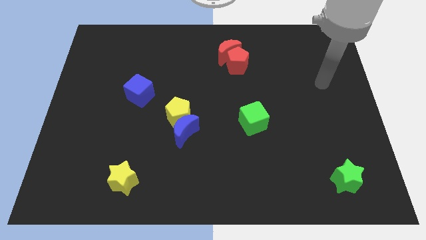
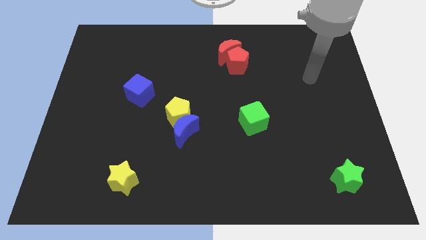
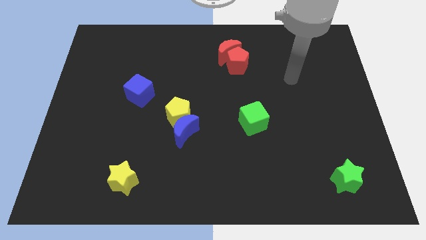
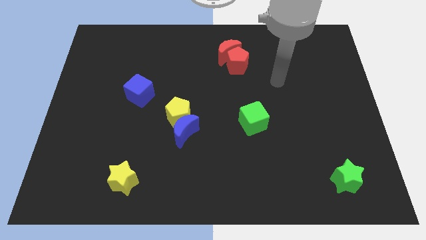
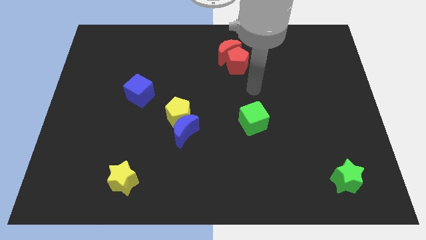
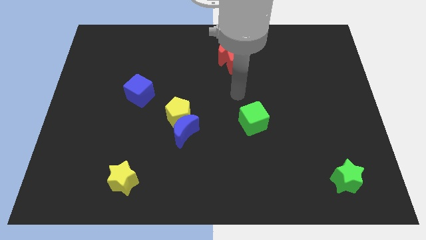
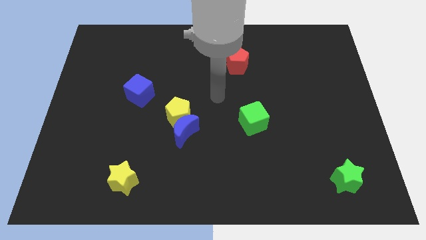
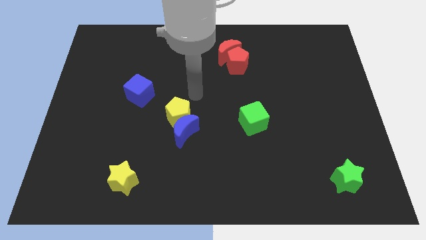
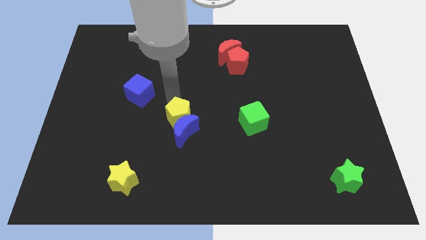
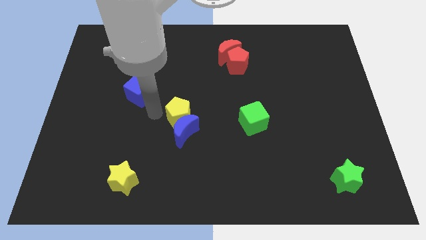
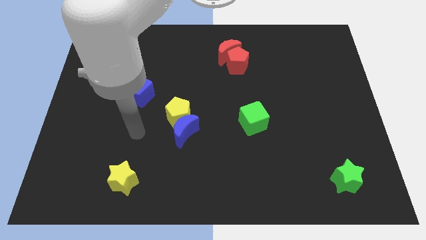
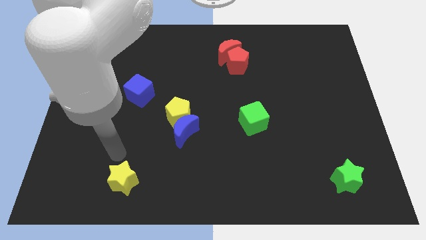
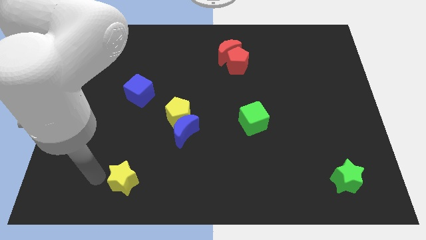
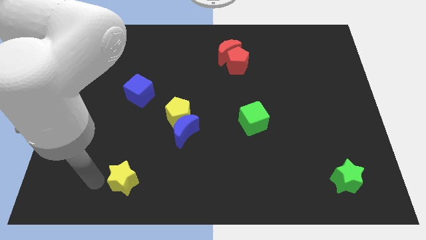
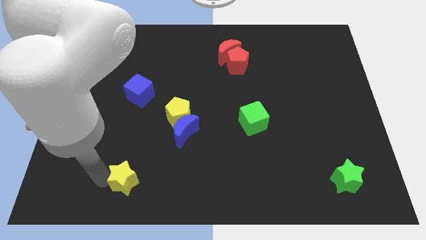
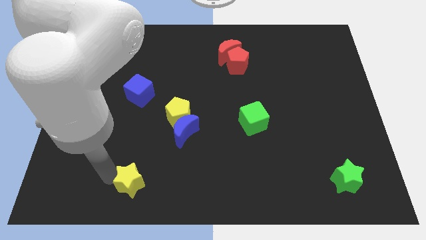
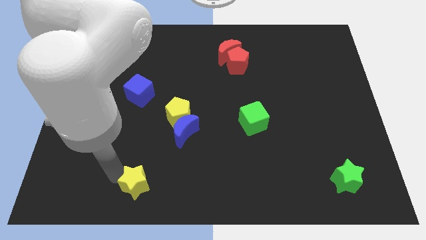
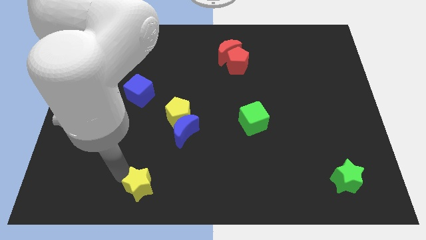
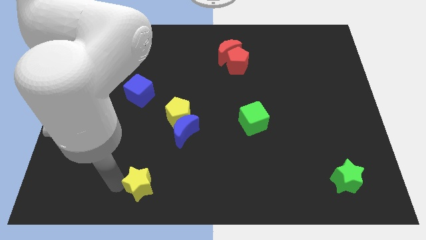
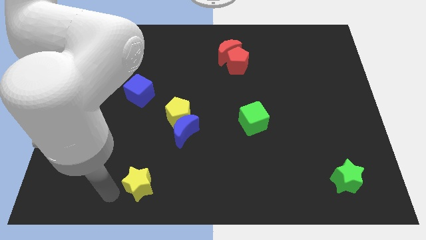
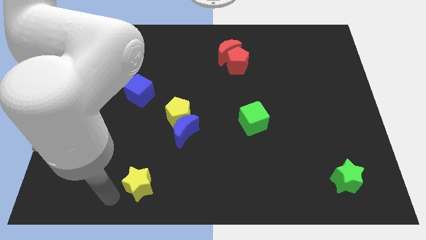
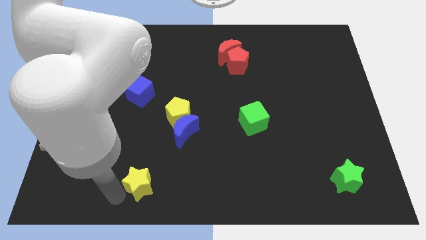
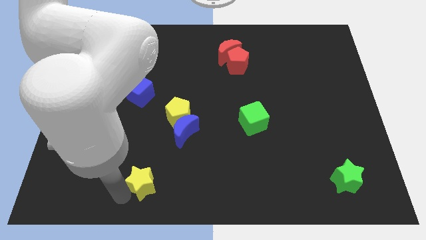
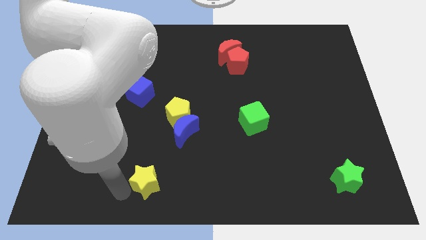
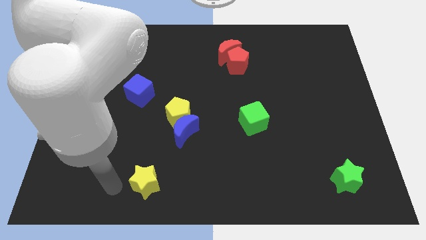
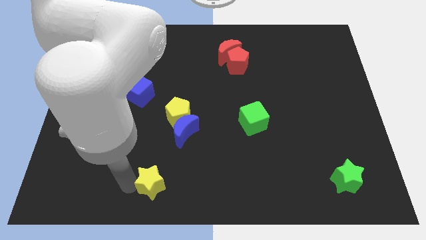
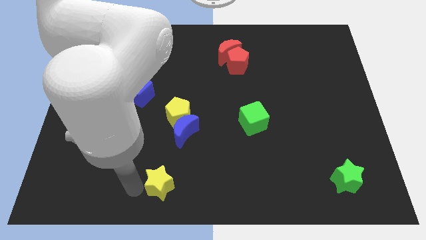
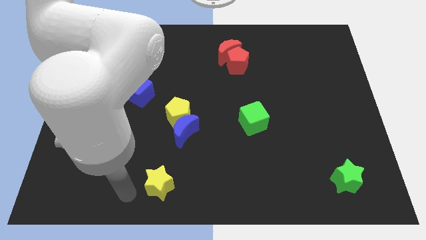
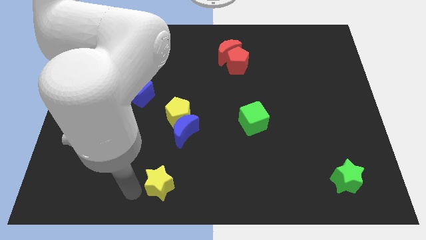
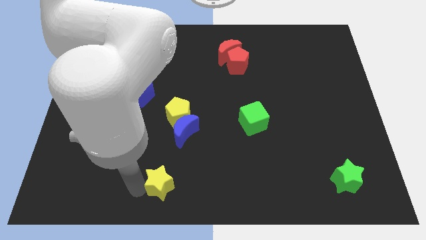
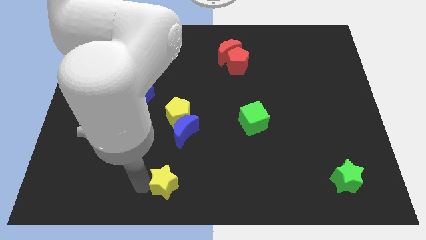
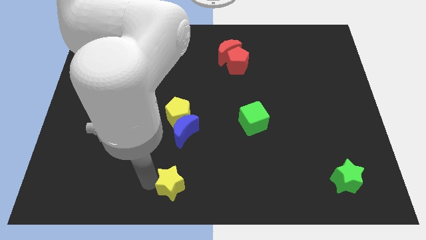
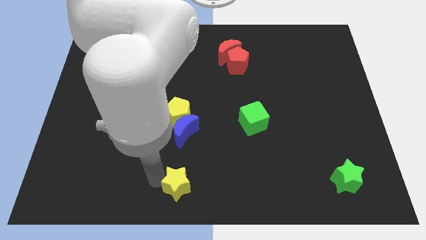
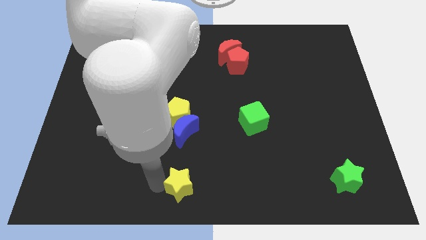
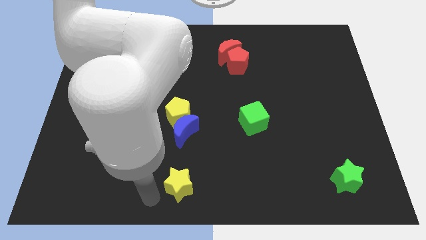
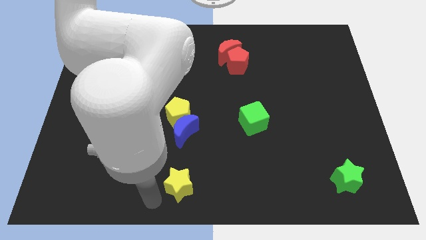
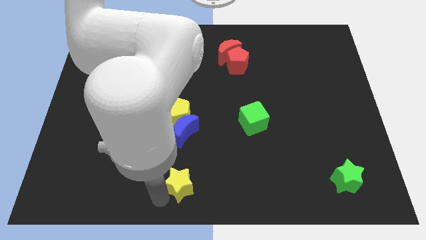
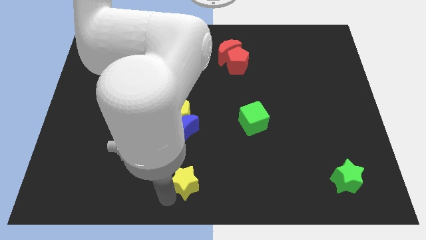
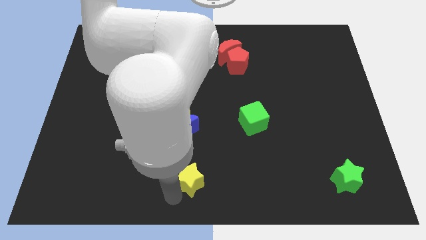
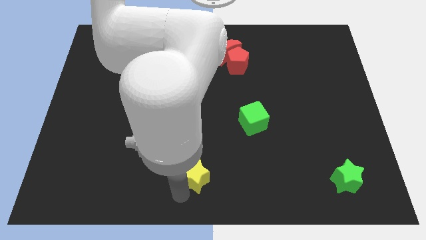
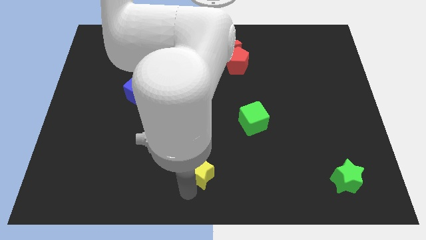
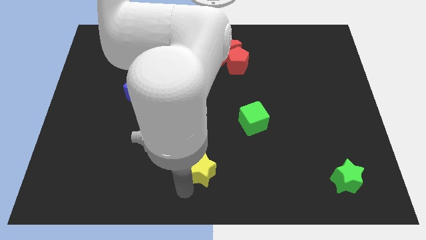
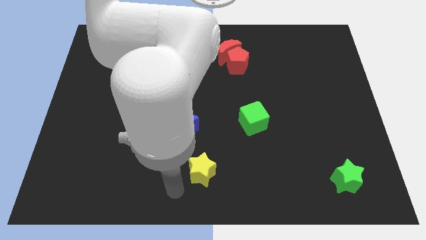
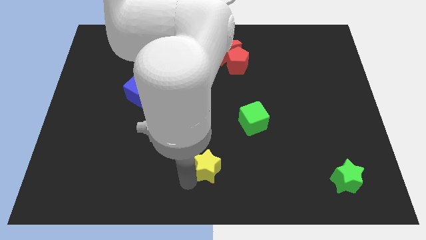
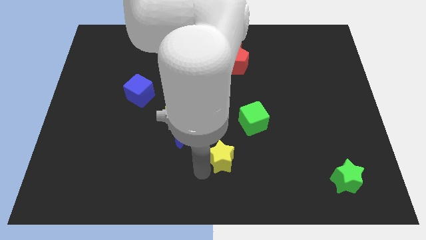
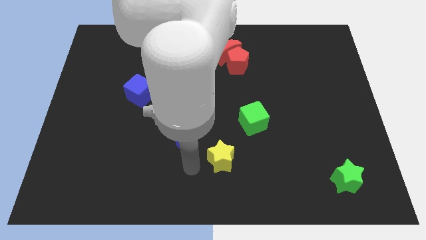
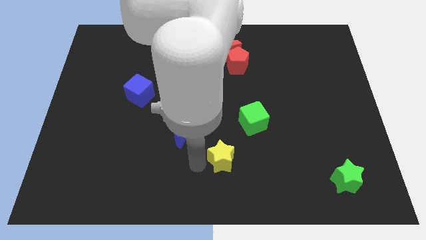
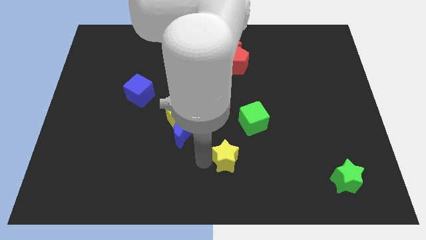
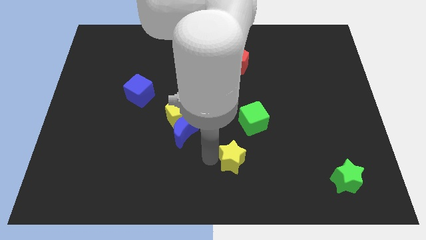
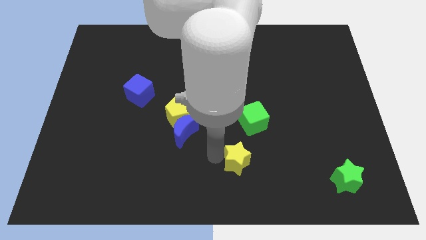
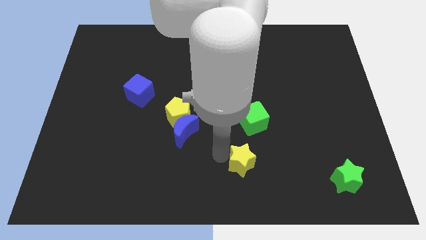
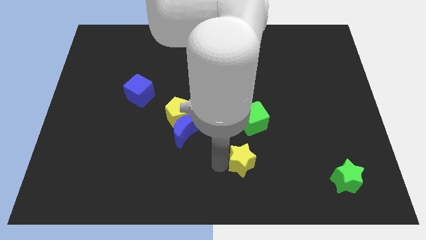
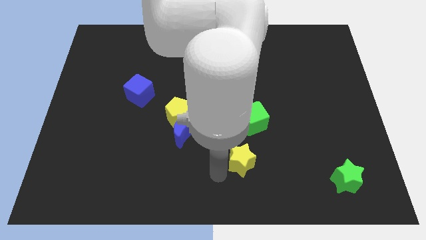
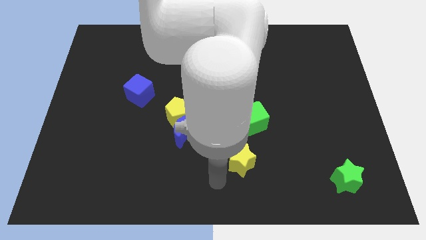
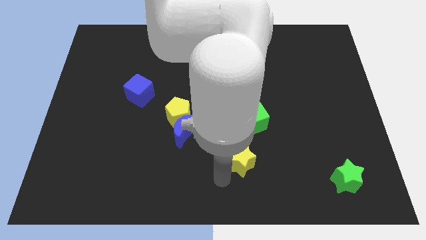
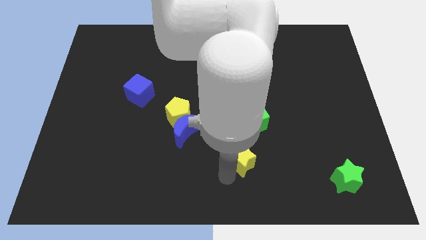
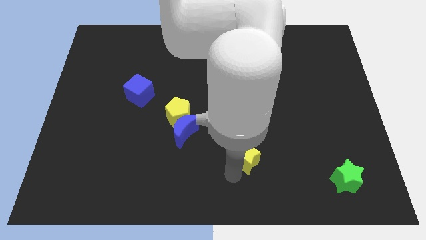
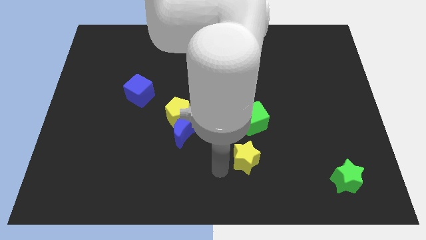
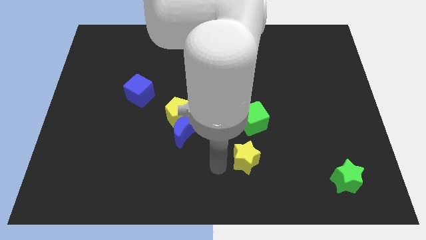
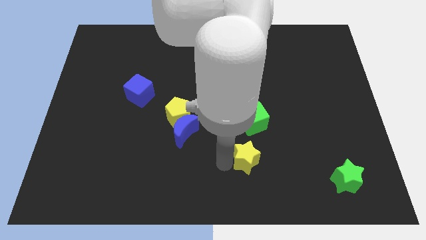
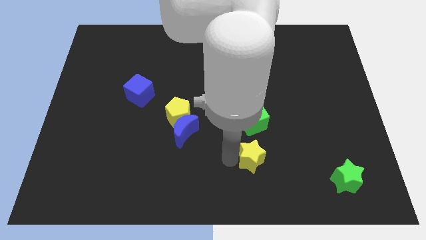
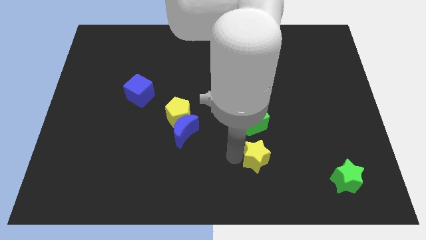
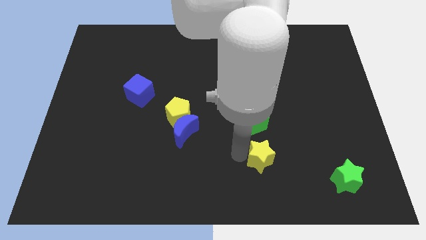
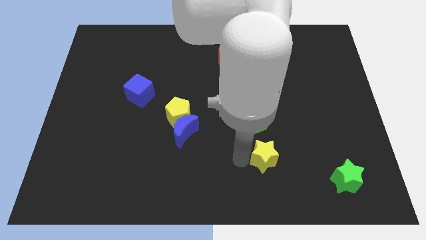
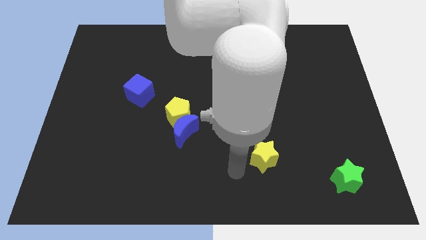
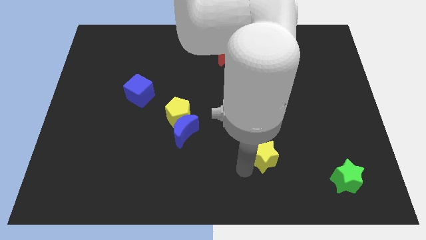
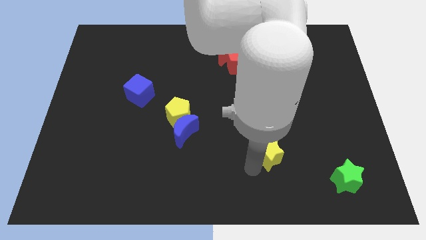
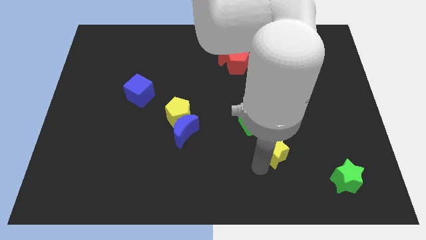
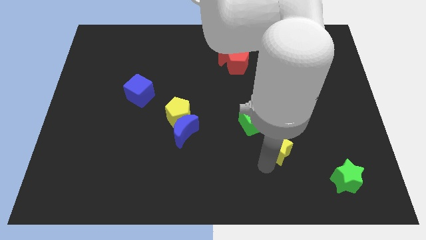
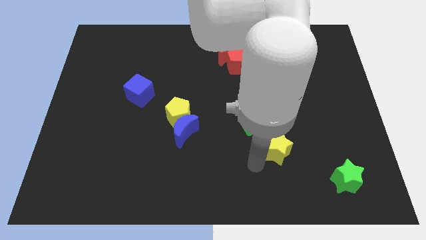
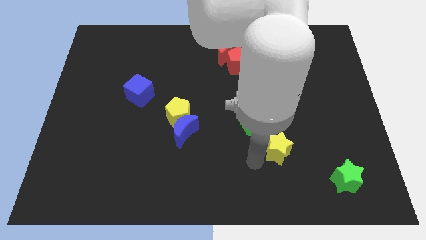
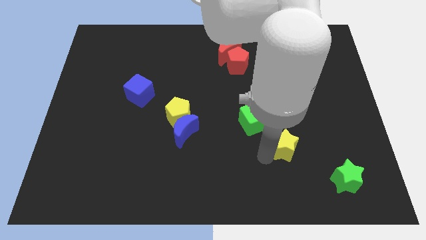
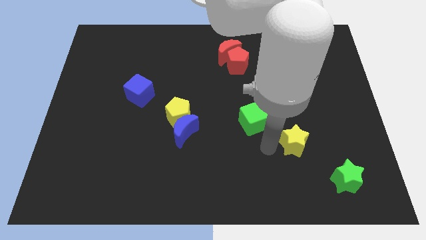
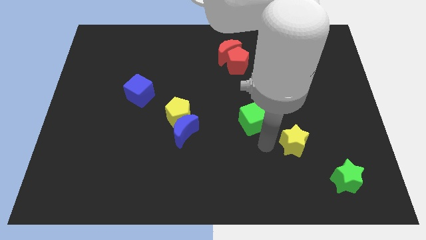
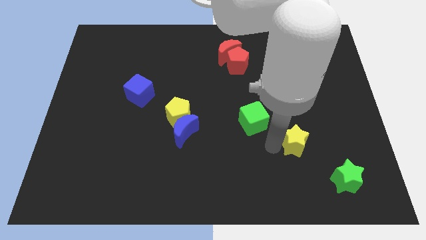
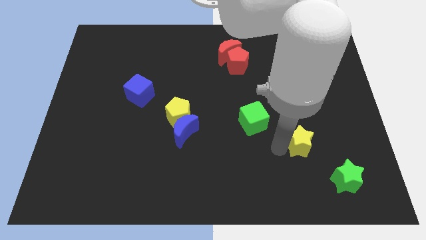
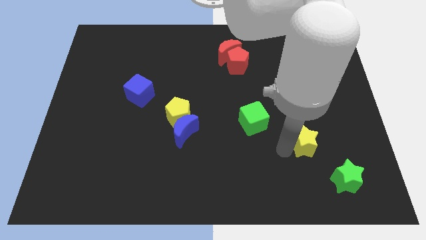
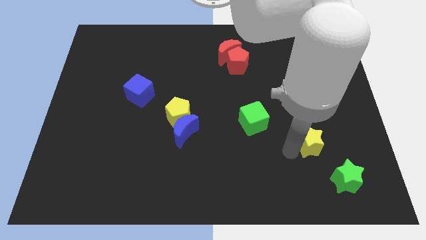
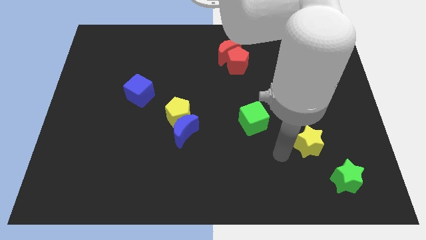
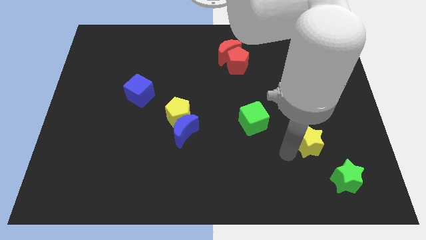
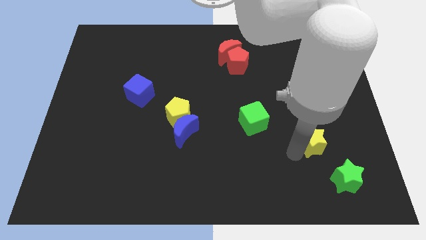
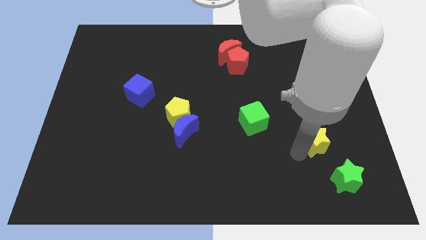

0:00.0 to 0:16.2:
push the yellow star above the green star
